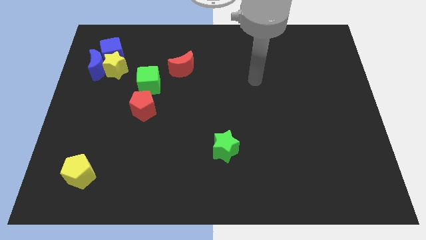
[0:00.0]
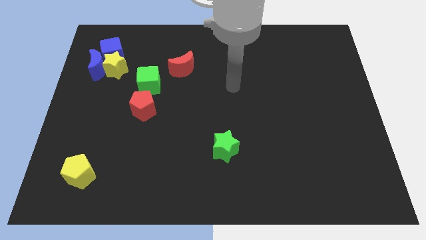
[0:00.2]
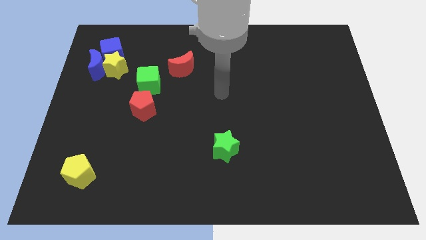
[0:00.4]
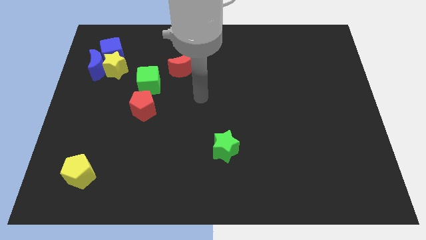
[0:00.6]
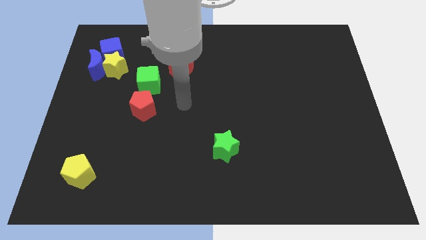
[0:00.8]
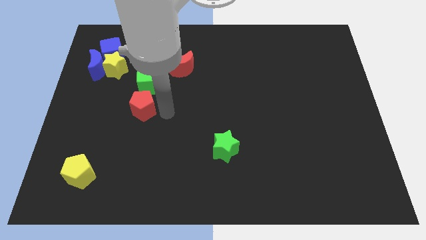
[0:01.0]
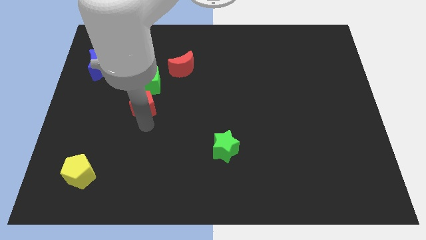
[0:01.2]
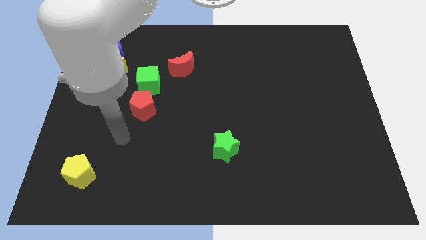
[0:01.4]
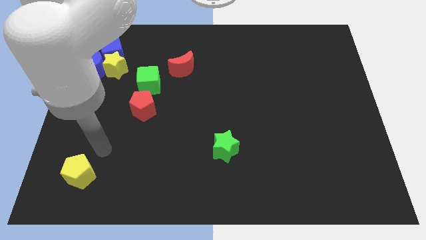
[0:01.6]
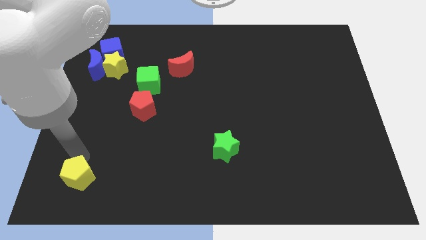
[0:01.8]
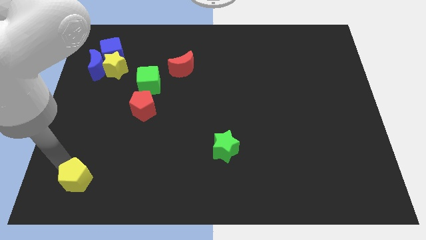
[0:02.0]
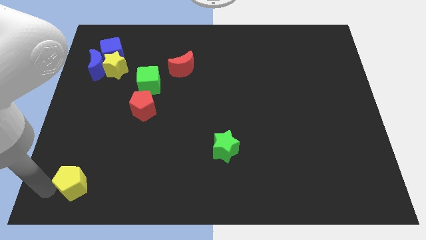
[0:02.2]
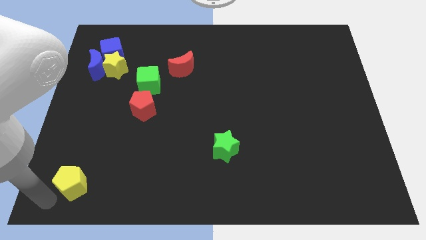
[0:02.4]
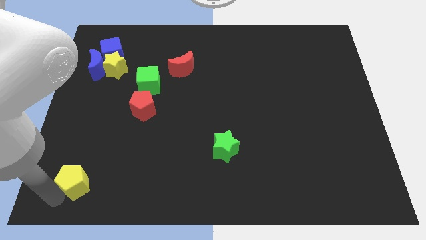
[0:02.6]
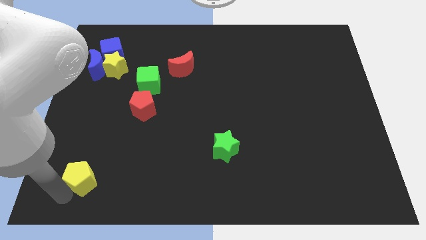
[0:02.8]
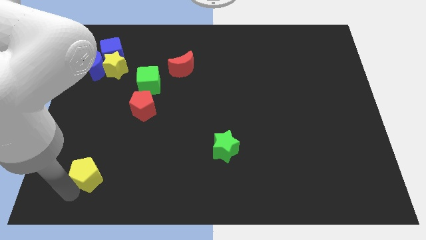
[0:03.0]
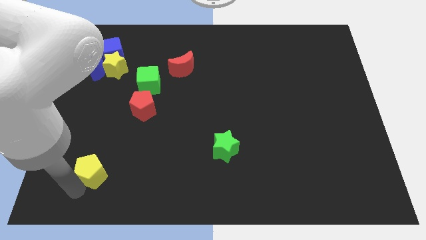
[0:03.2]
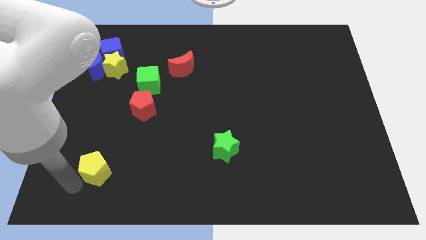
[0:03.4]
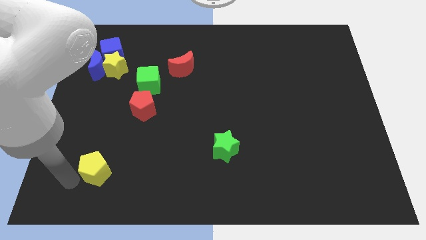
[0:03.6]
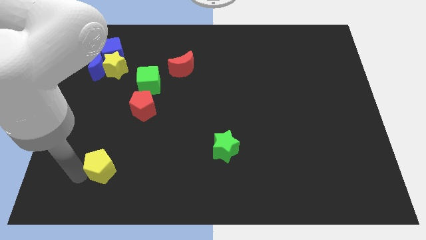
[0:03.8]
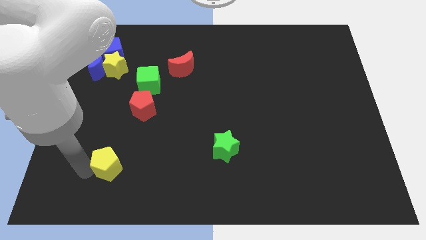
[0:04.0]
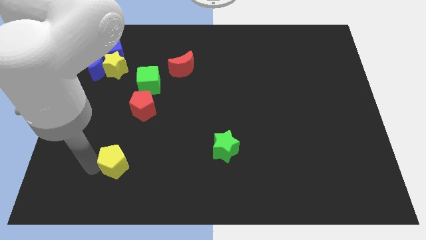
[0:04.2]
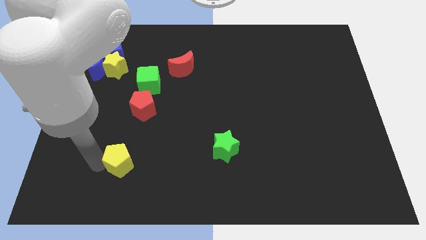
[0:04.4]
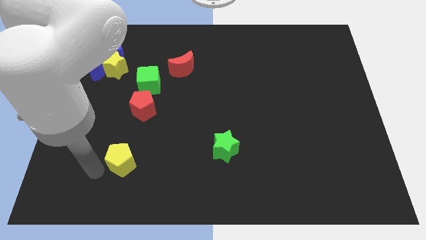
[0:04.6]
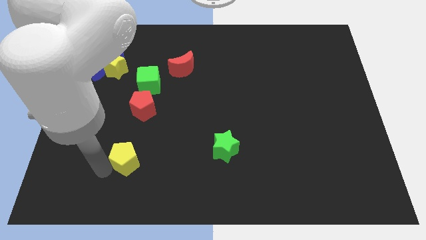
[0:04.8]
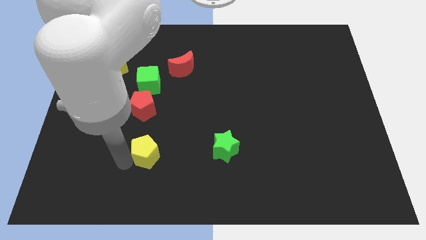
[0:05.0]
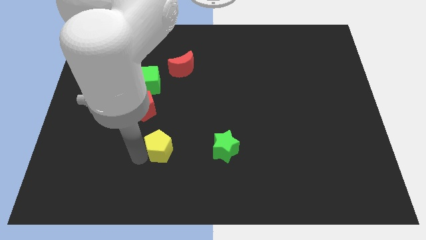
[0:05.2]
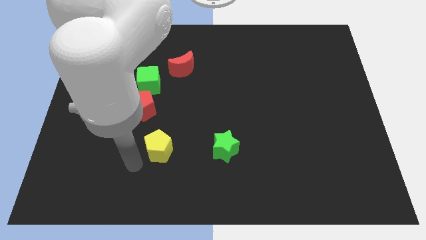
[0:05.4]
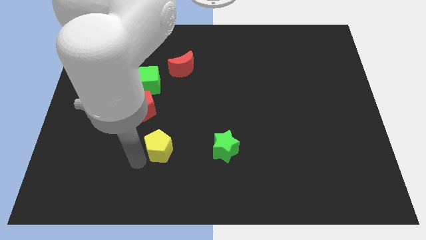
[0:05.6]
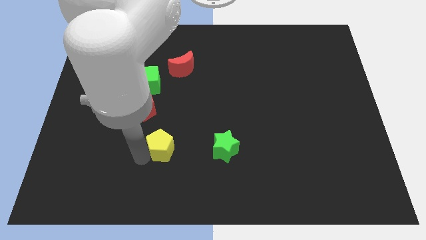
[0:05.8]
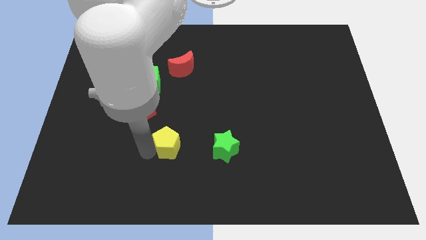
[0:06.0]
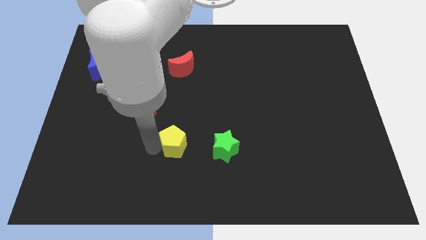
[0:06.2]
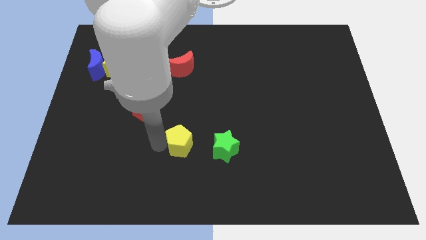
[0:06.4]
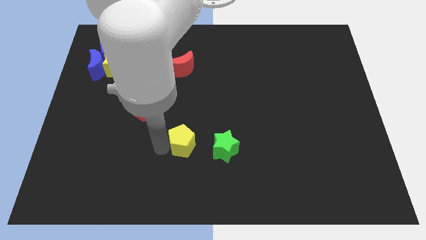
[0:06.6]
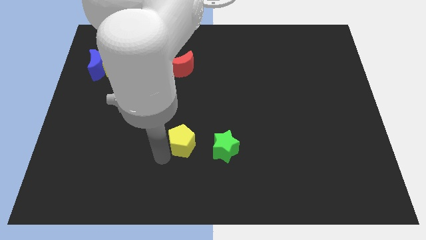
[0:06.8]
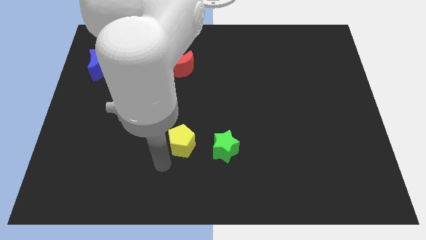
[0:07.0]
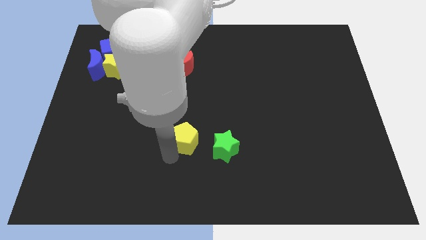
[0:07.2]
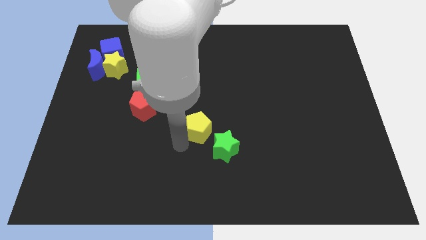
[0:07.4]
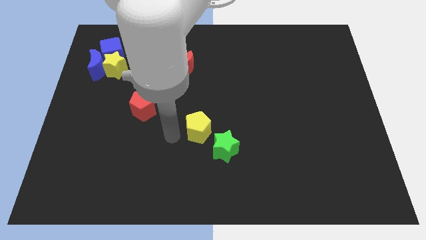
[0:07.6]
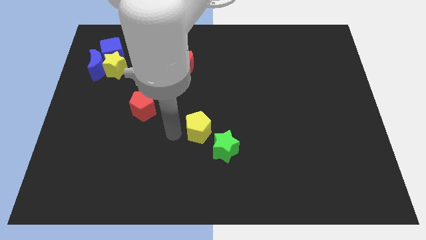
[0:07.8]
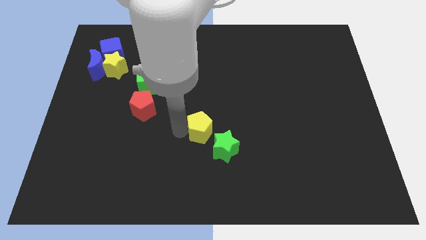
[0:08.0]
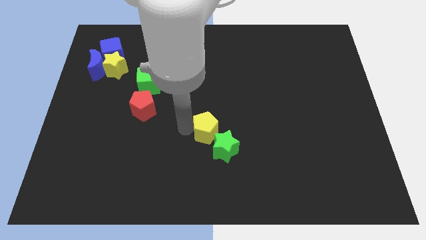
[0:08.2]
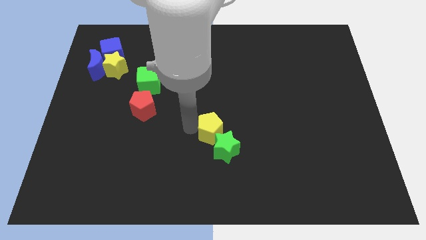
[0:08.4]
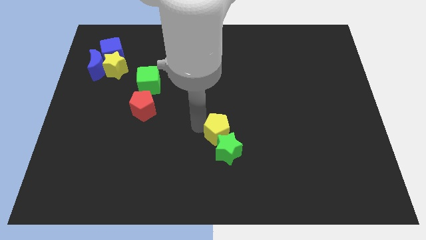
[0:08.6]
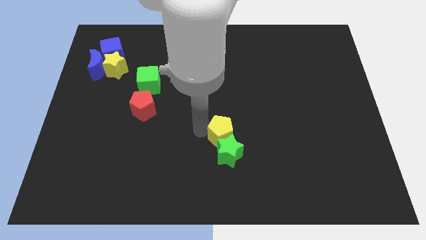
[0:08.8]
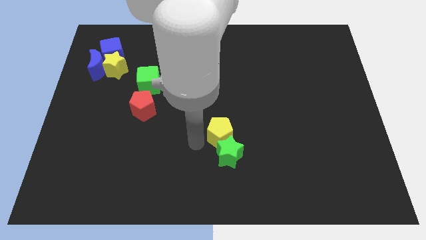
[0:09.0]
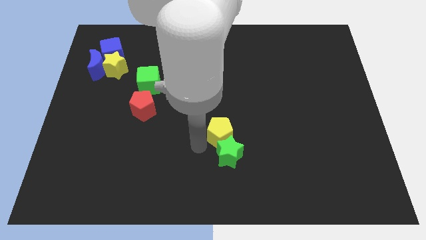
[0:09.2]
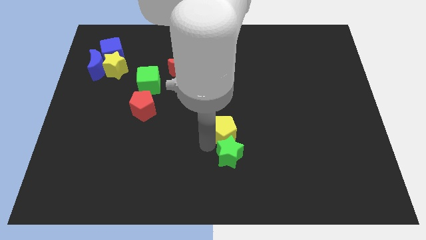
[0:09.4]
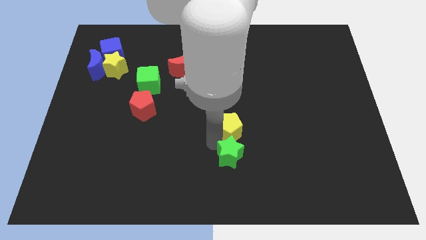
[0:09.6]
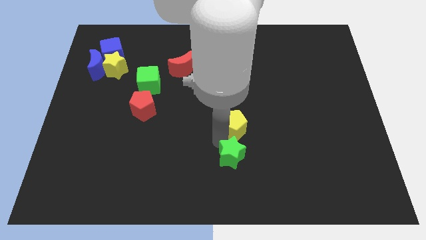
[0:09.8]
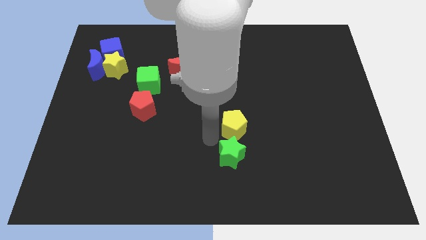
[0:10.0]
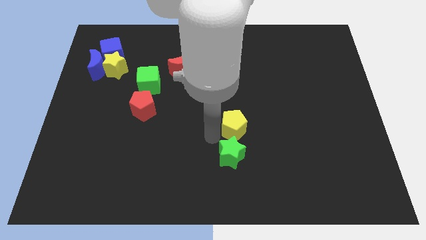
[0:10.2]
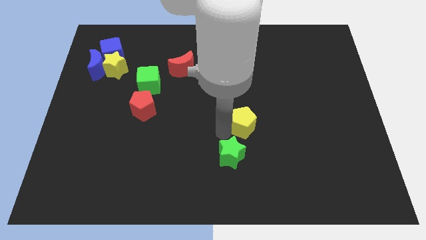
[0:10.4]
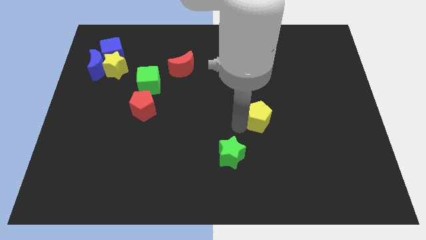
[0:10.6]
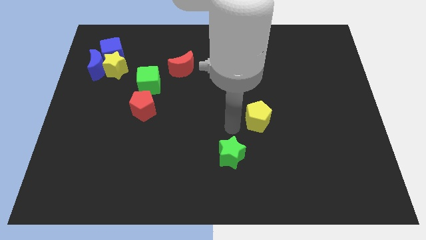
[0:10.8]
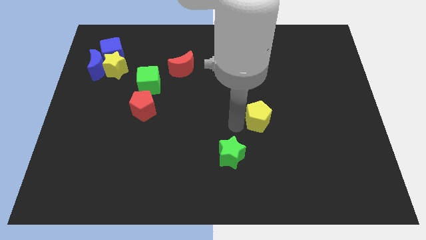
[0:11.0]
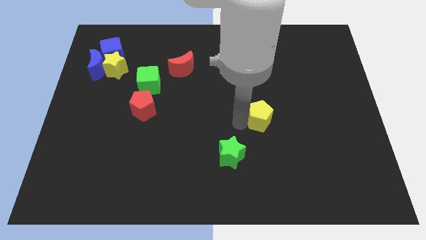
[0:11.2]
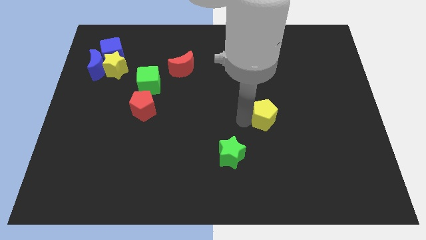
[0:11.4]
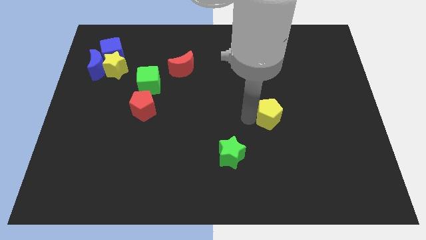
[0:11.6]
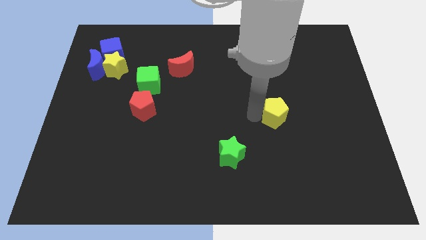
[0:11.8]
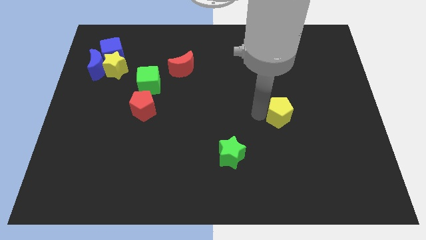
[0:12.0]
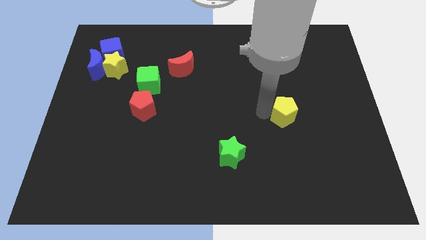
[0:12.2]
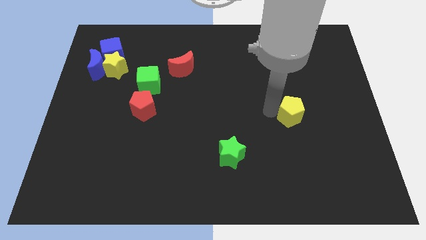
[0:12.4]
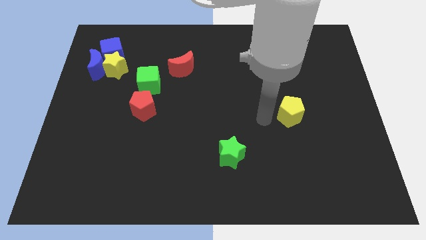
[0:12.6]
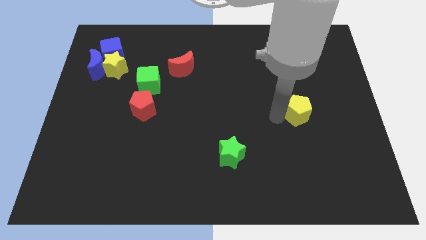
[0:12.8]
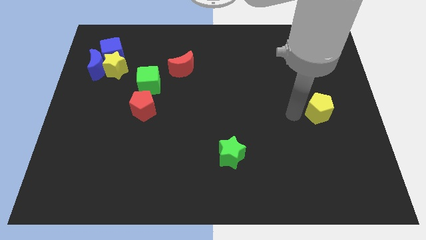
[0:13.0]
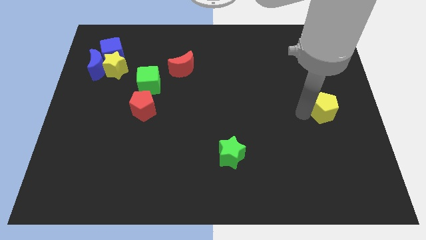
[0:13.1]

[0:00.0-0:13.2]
slide the yellow pentagon to the center right
